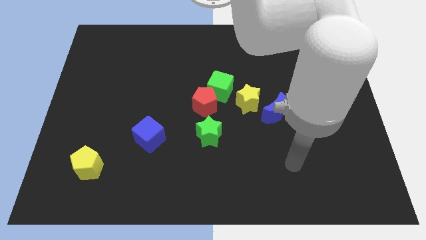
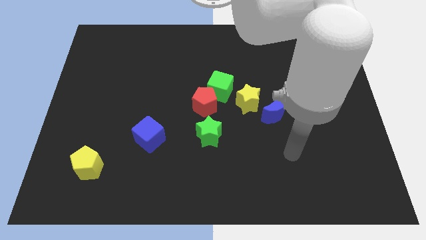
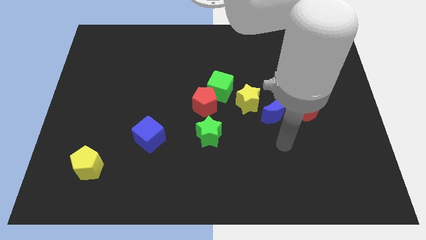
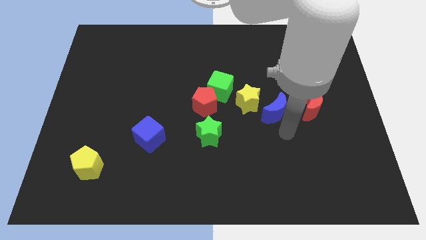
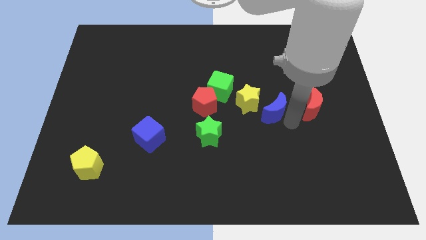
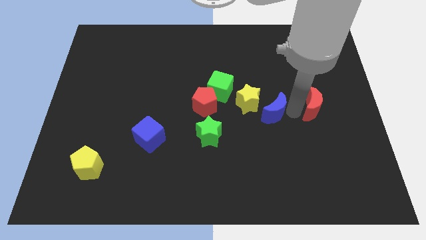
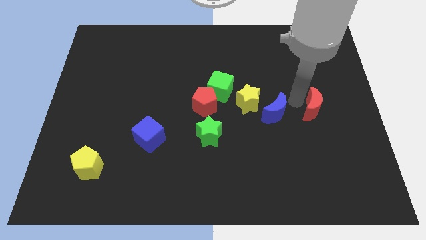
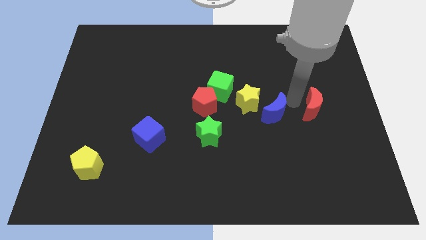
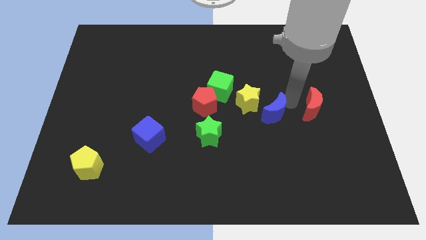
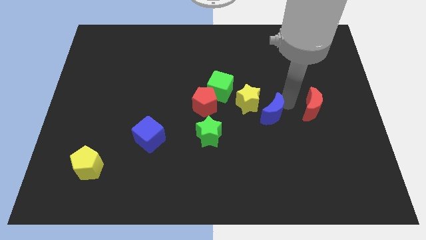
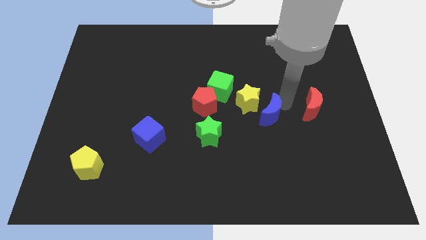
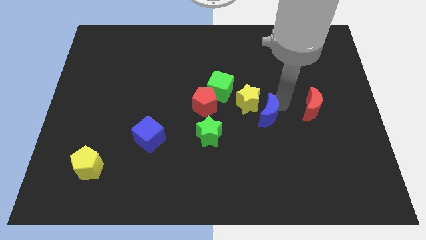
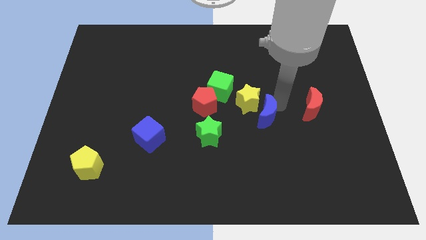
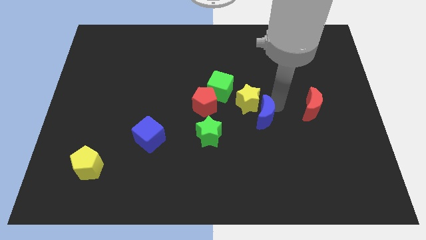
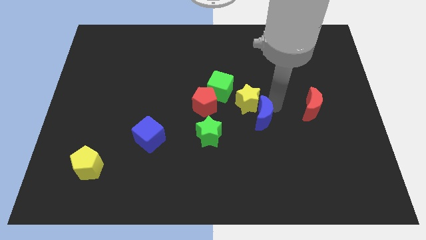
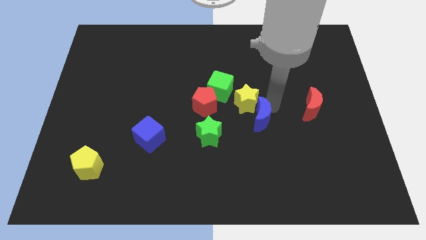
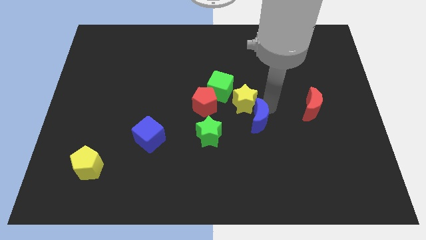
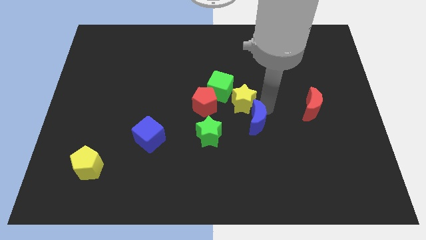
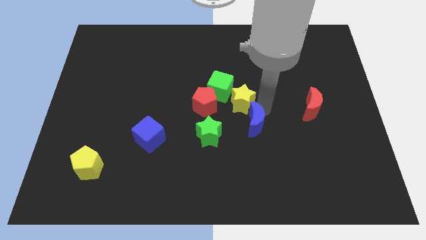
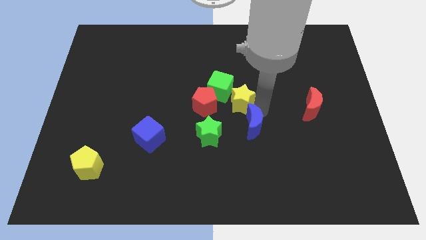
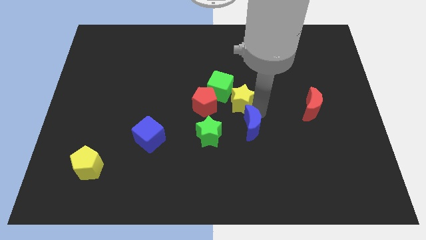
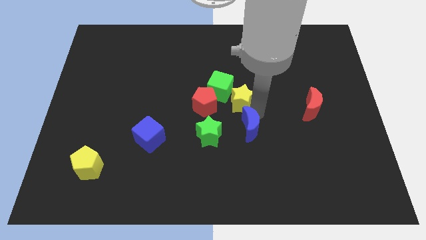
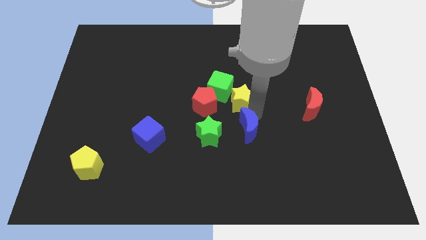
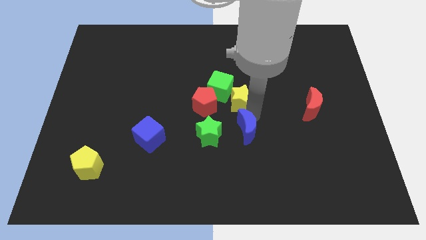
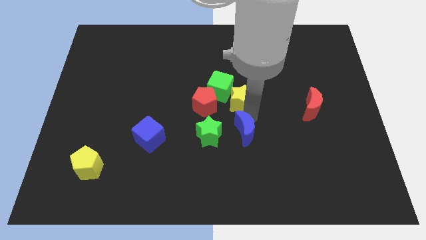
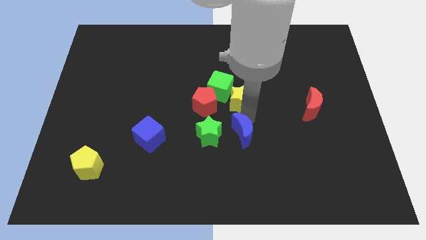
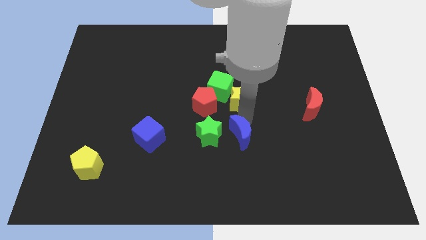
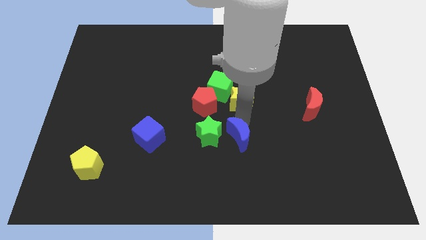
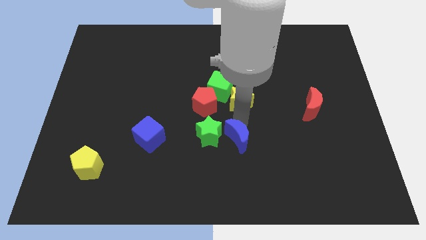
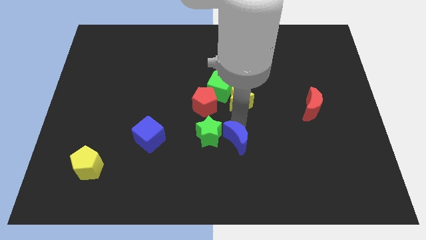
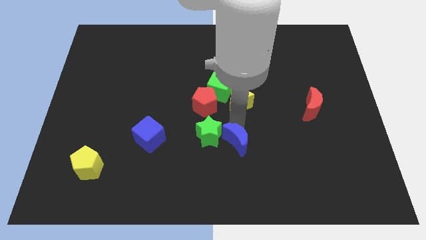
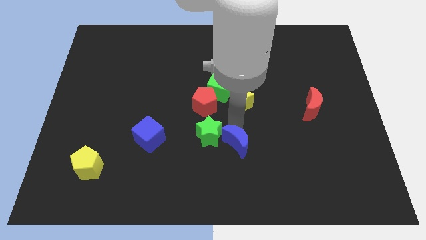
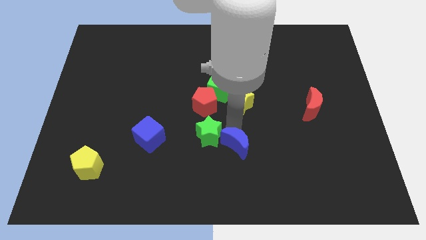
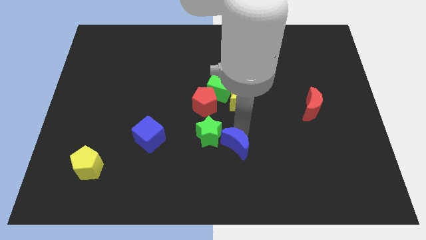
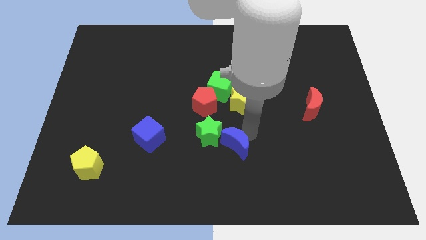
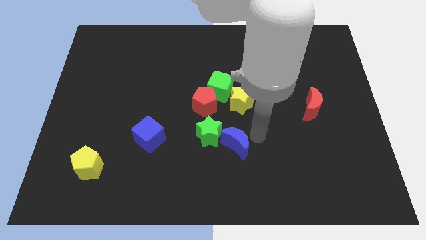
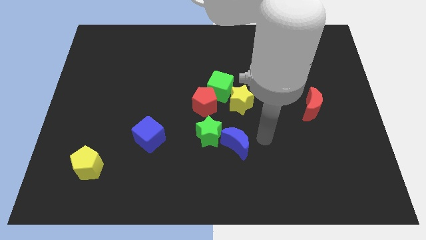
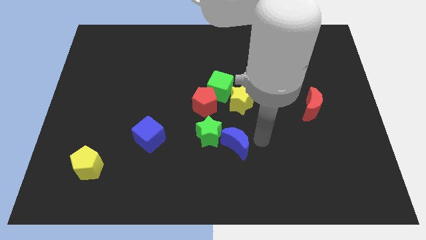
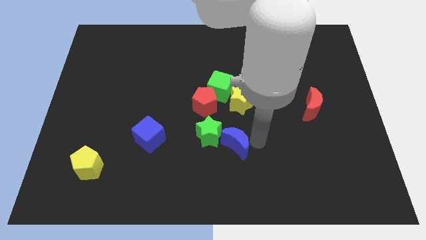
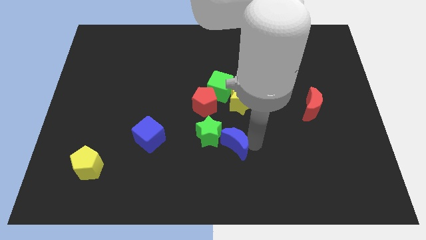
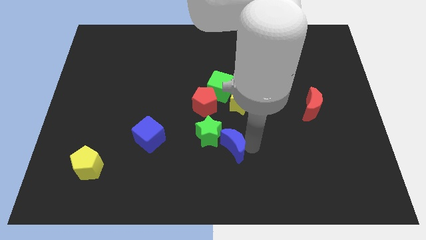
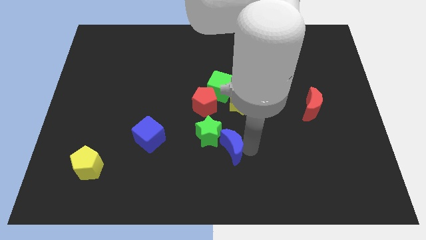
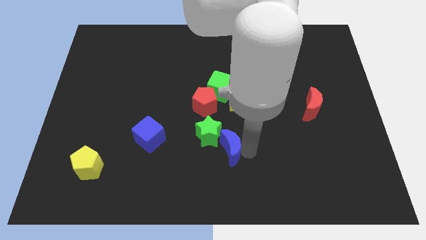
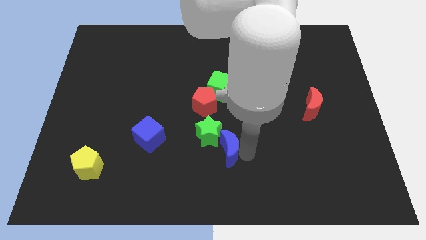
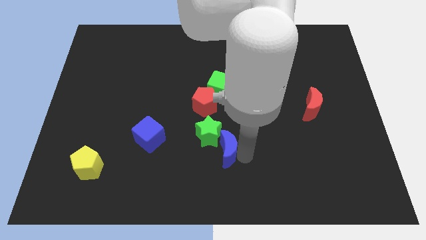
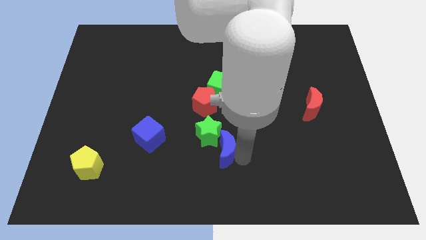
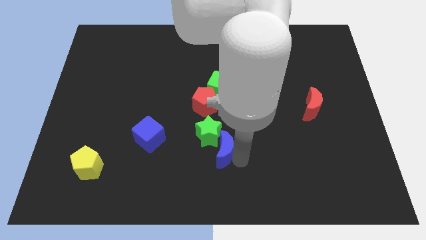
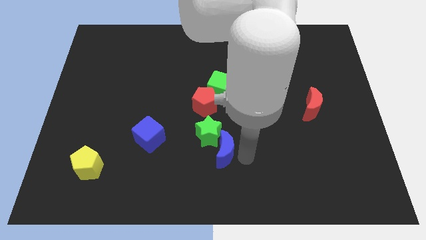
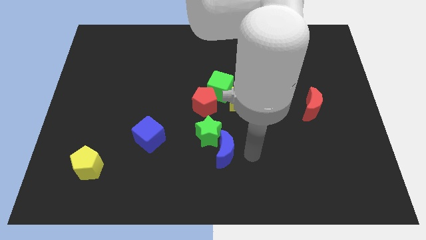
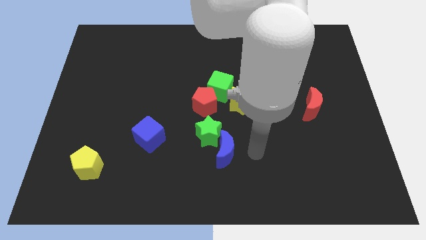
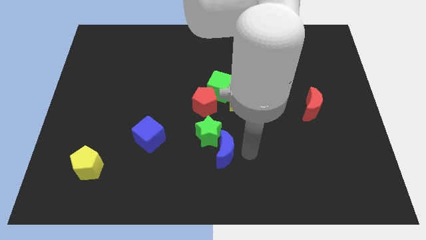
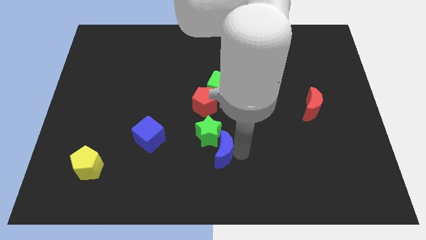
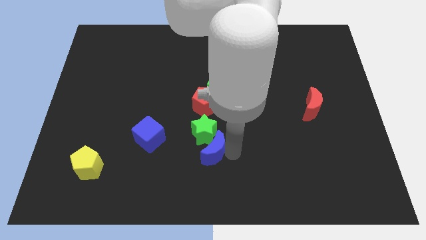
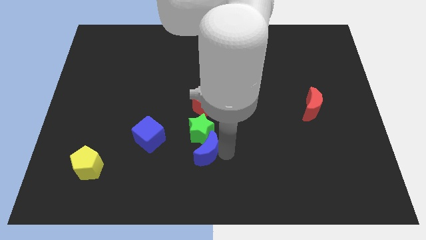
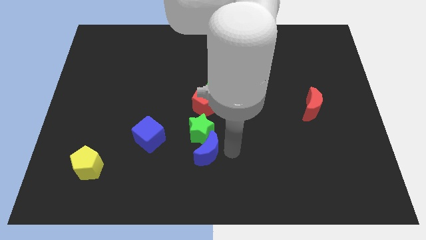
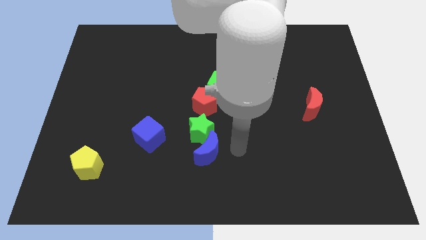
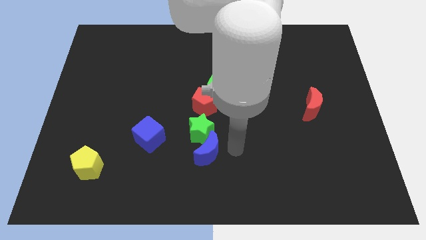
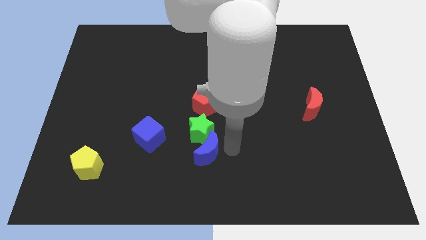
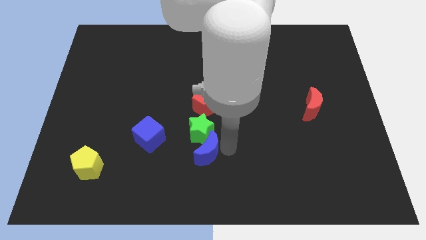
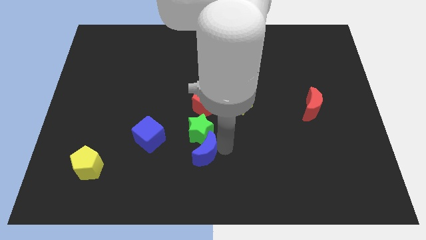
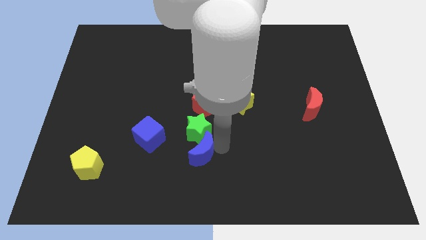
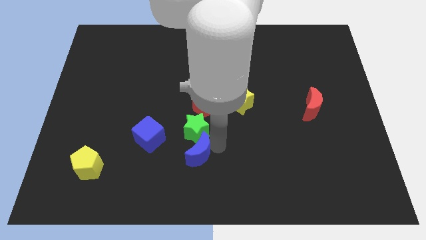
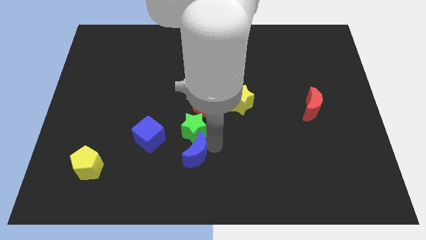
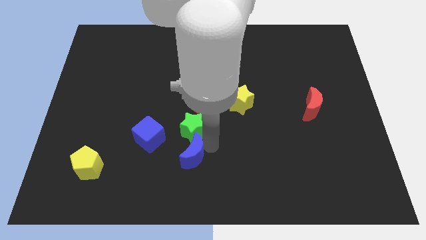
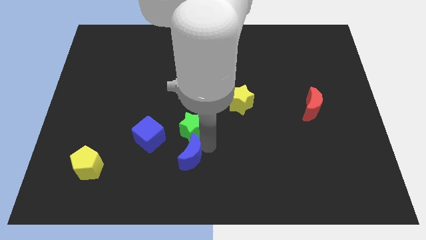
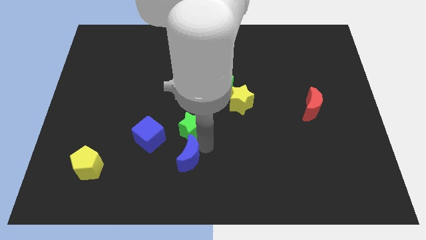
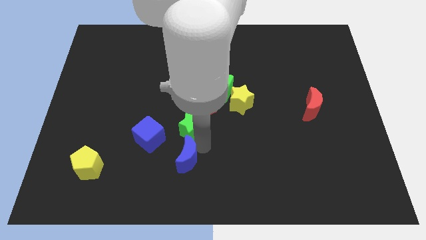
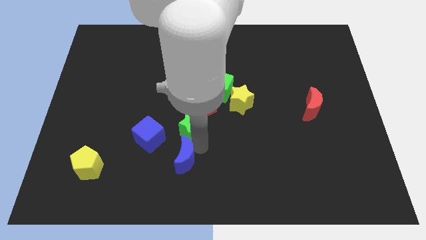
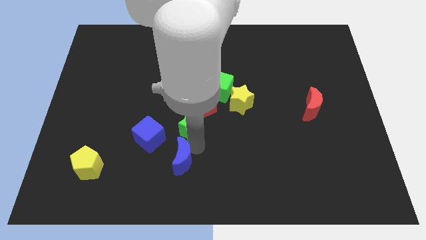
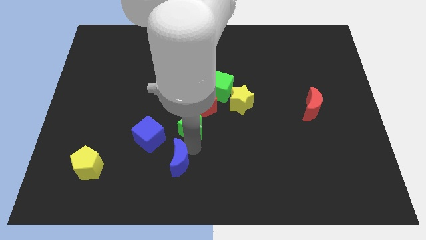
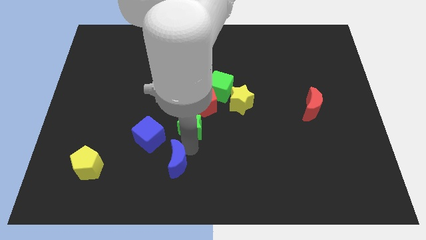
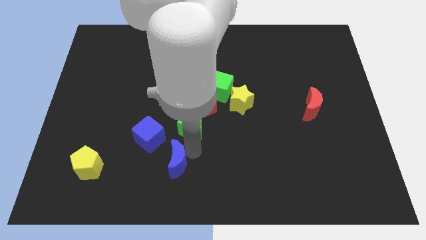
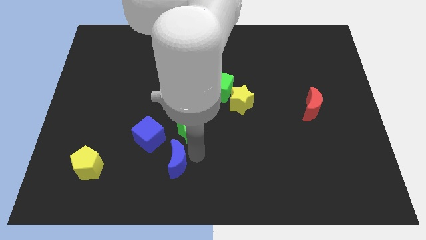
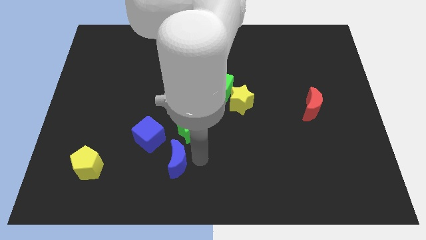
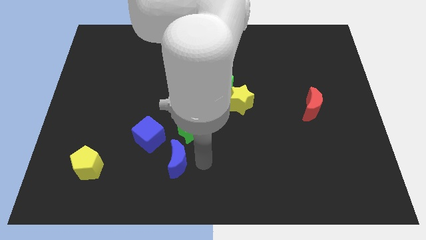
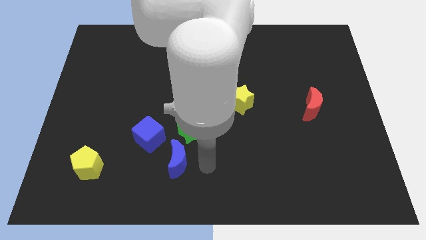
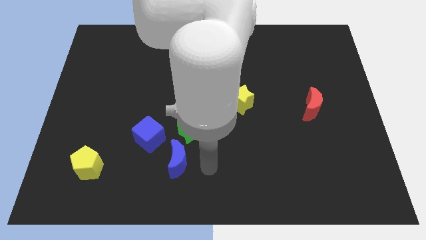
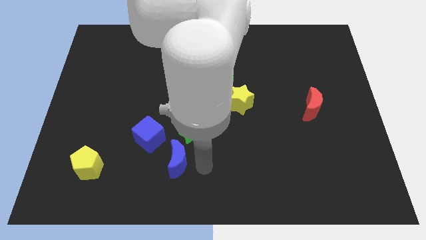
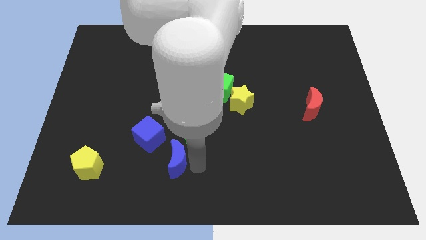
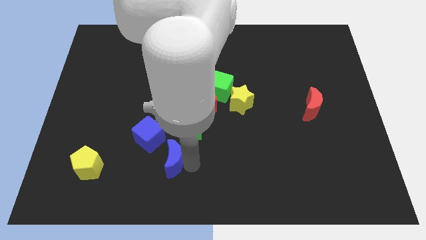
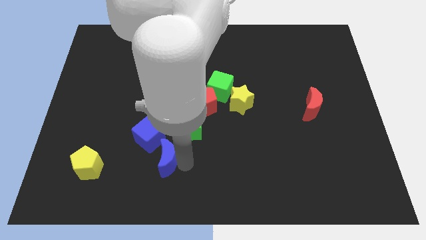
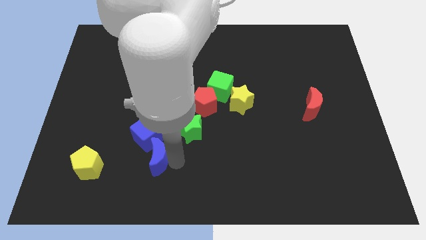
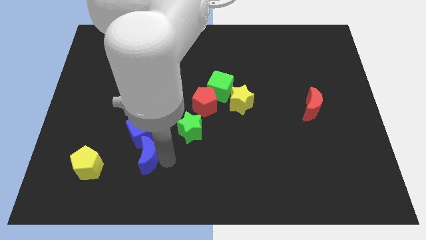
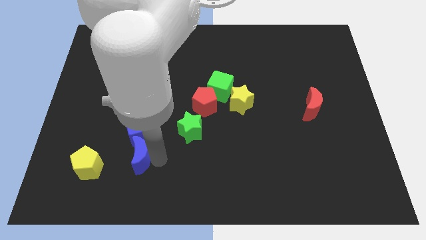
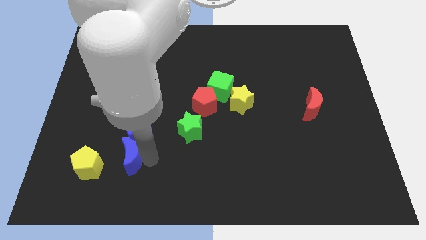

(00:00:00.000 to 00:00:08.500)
move the blue moon diagonally down and to the left of the blue cube
